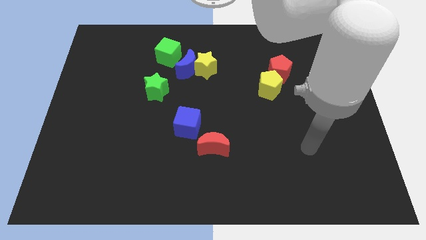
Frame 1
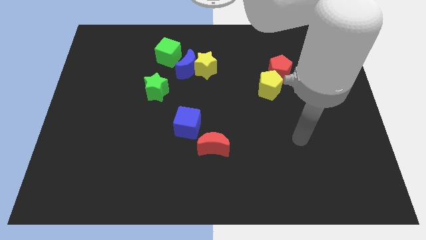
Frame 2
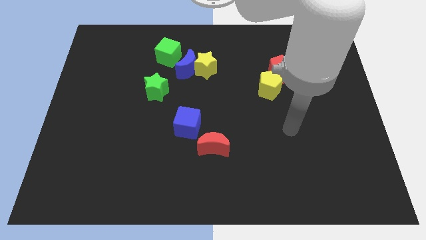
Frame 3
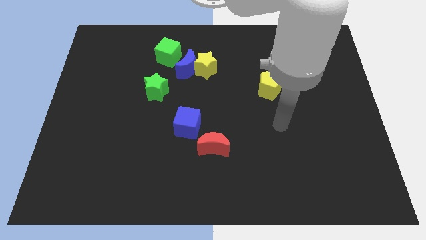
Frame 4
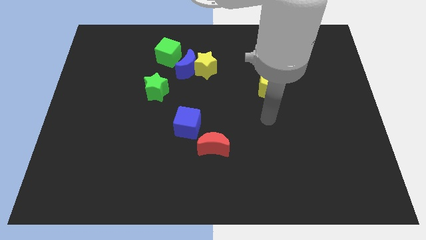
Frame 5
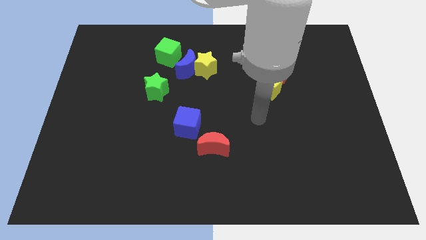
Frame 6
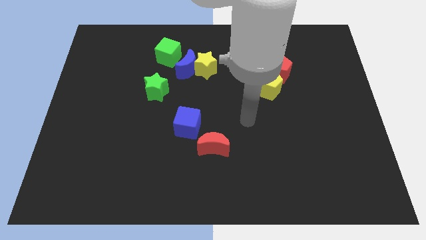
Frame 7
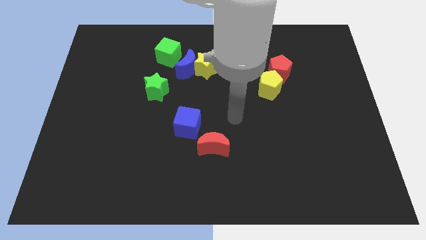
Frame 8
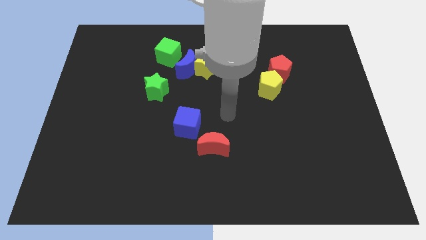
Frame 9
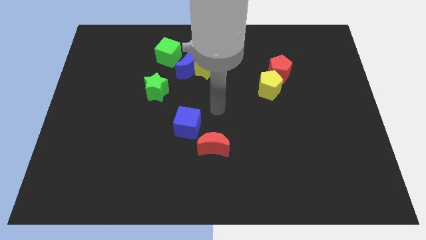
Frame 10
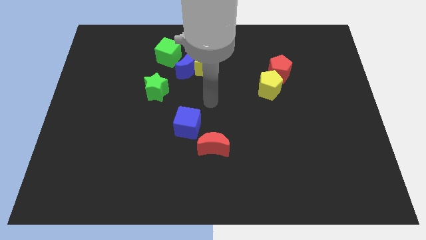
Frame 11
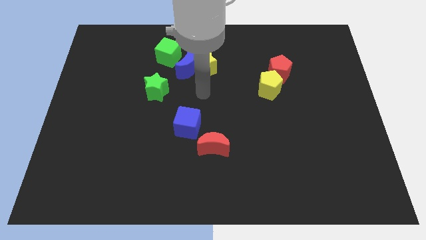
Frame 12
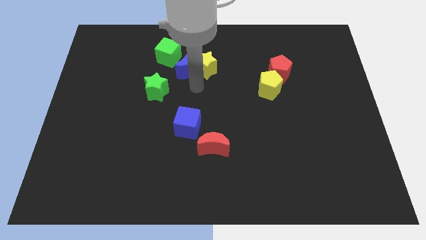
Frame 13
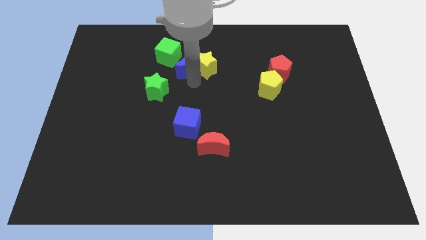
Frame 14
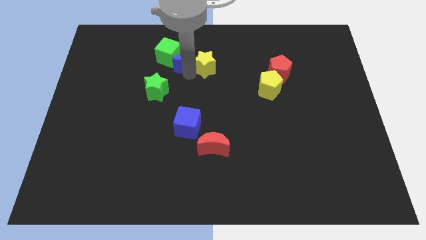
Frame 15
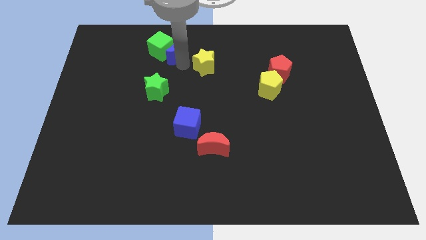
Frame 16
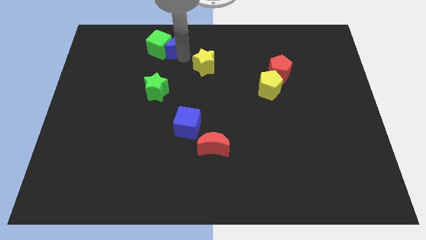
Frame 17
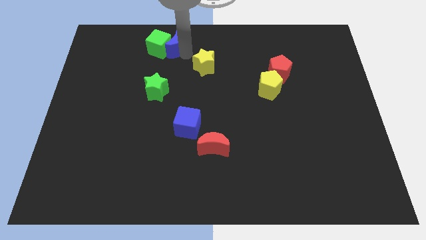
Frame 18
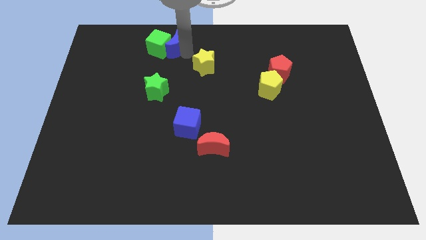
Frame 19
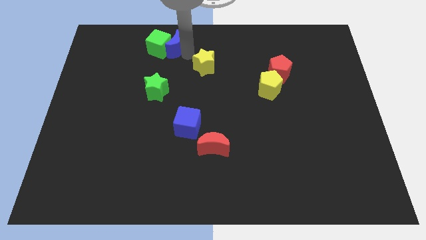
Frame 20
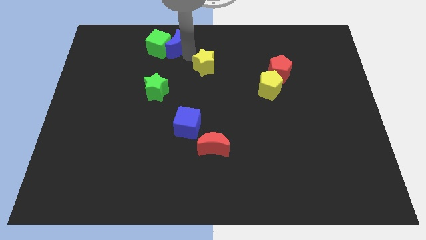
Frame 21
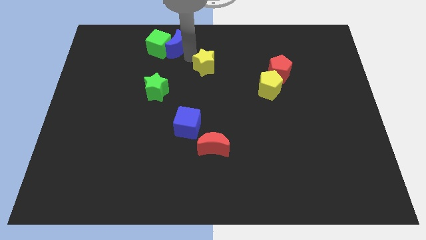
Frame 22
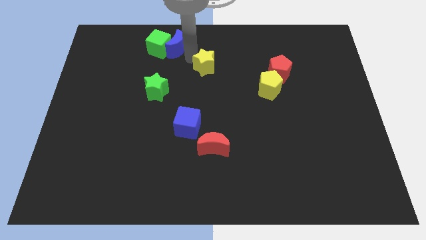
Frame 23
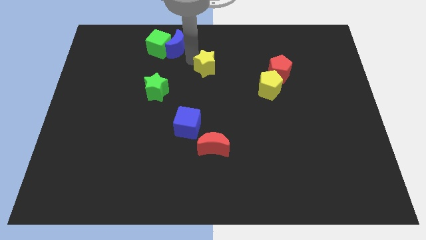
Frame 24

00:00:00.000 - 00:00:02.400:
separate the yellow star from the blue moon

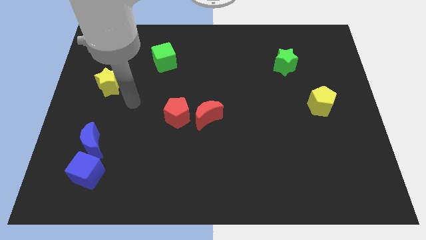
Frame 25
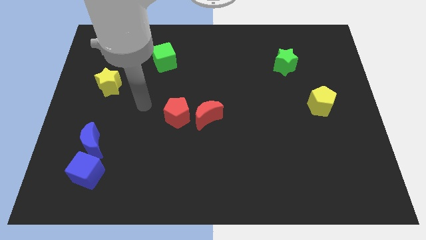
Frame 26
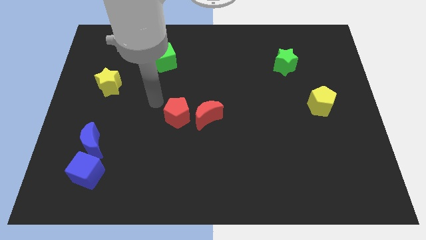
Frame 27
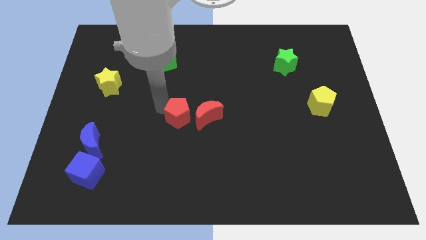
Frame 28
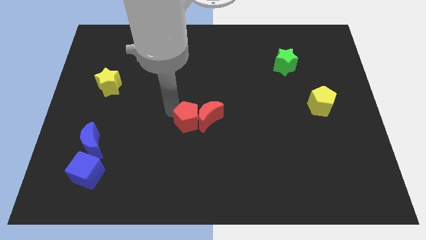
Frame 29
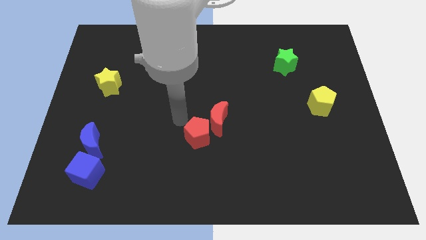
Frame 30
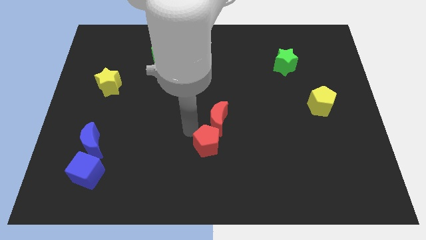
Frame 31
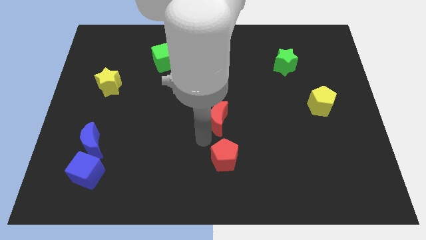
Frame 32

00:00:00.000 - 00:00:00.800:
pull the red moon apart from the red pentagon

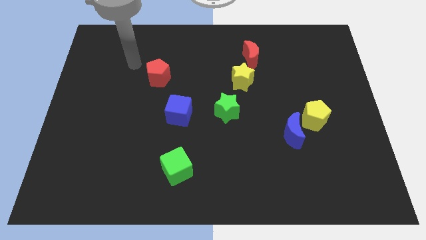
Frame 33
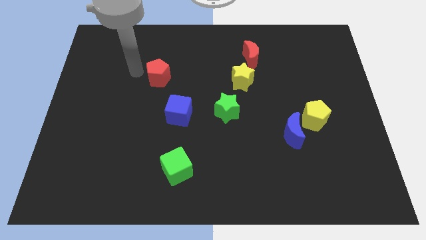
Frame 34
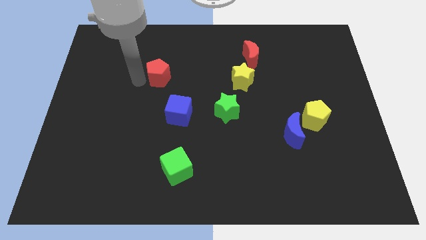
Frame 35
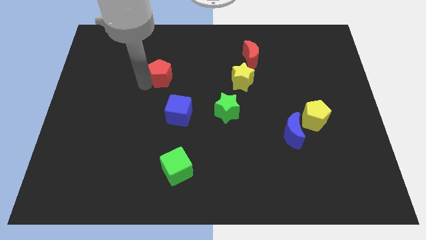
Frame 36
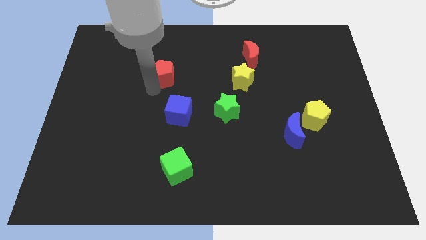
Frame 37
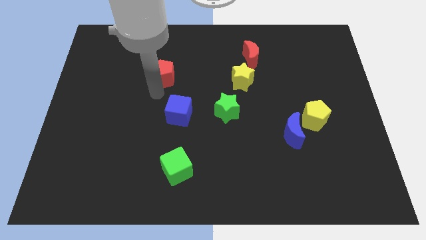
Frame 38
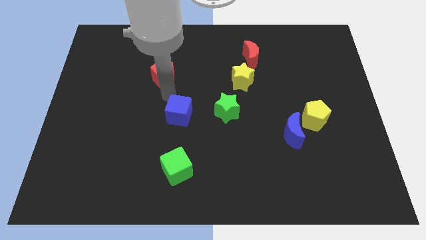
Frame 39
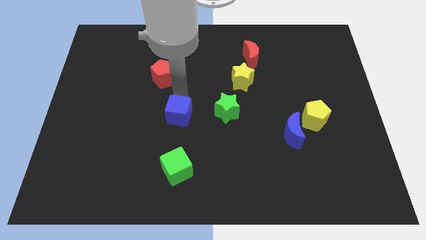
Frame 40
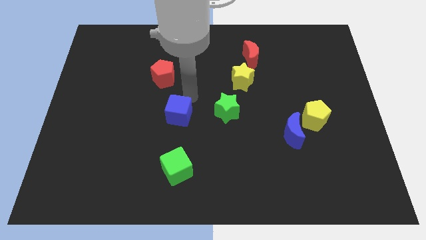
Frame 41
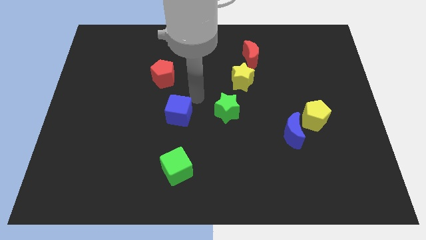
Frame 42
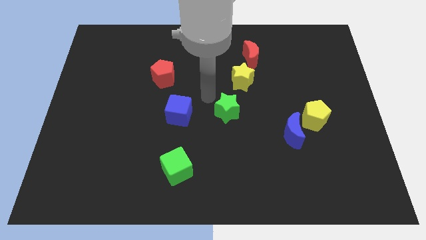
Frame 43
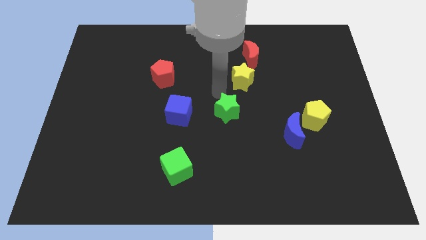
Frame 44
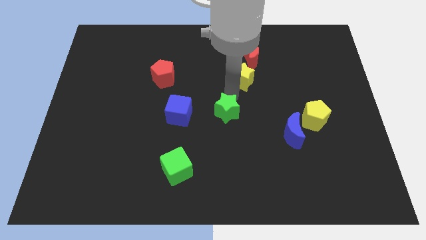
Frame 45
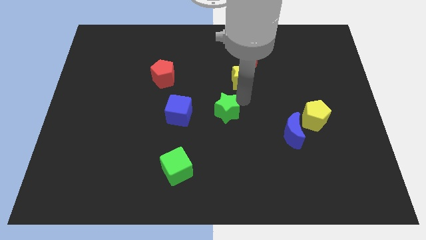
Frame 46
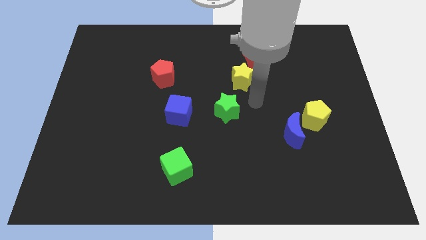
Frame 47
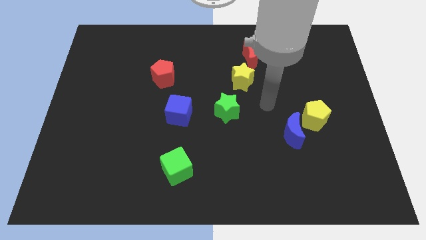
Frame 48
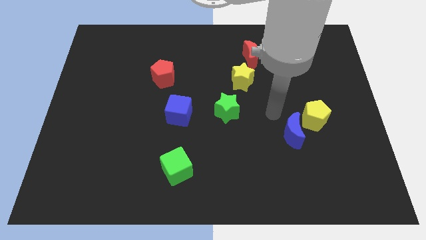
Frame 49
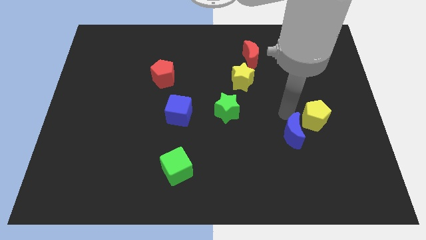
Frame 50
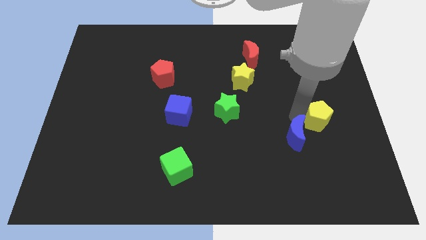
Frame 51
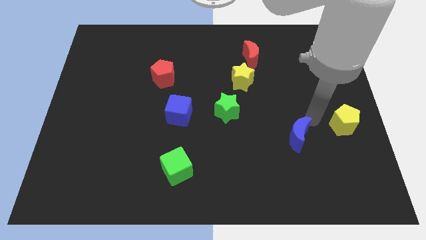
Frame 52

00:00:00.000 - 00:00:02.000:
separate the blue moon from the yellow pentagon

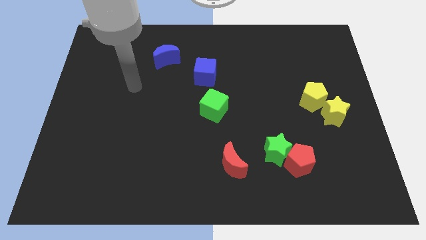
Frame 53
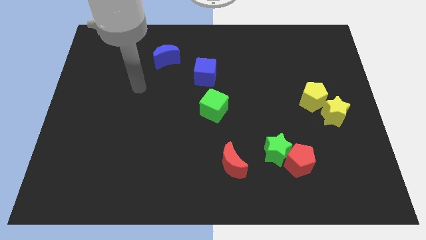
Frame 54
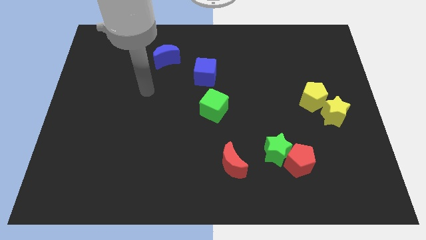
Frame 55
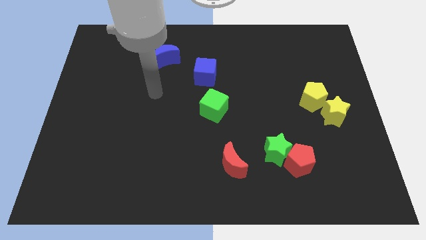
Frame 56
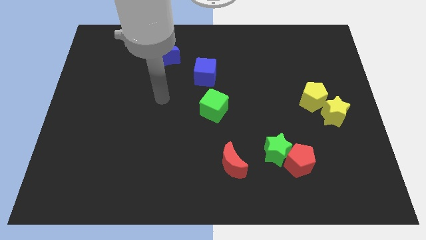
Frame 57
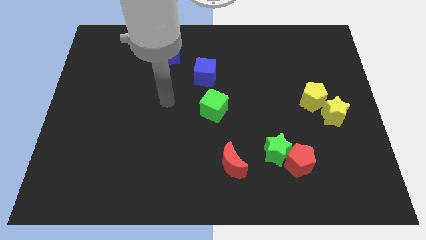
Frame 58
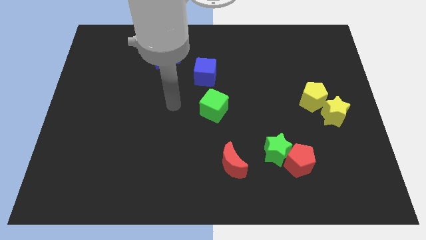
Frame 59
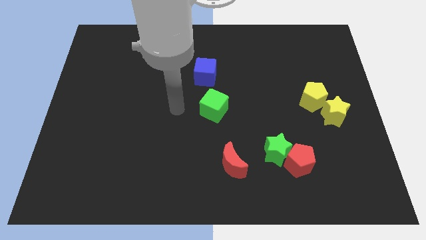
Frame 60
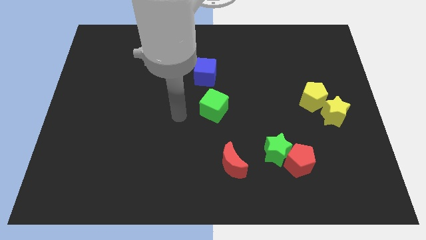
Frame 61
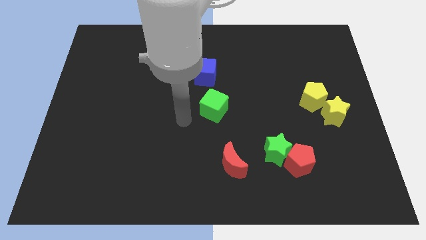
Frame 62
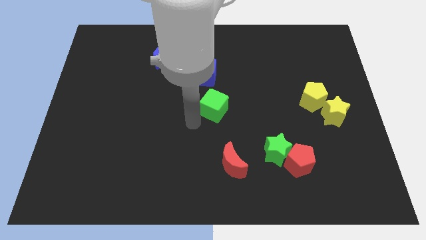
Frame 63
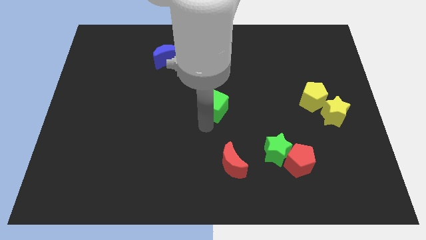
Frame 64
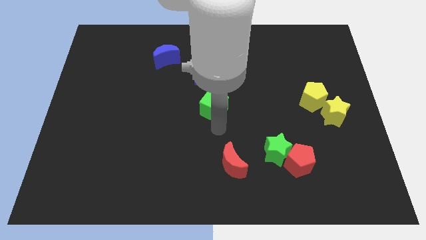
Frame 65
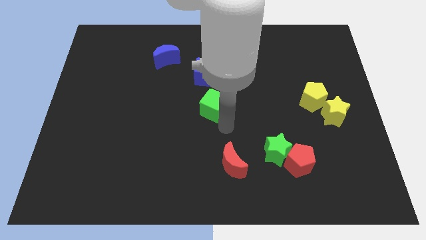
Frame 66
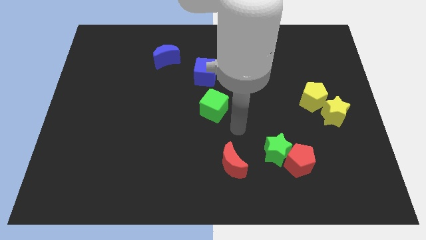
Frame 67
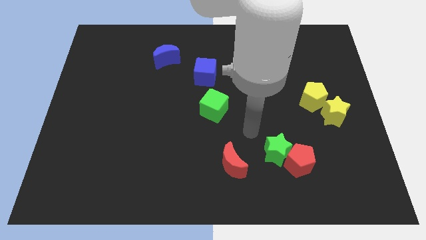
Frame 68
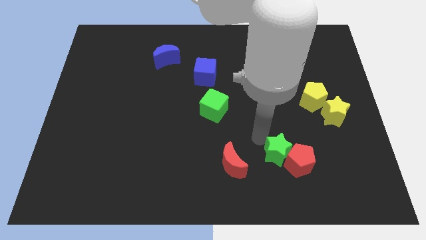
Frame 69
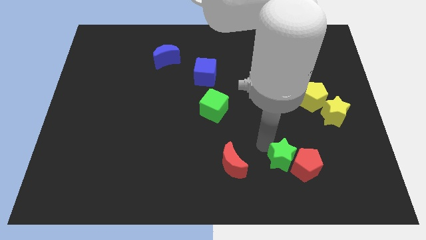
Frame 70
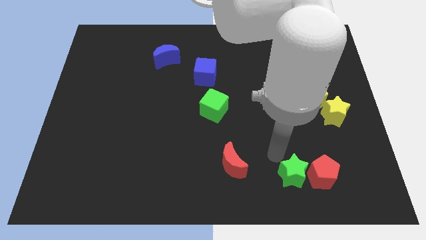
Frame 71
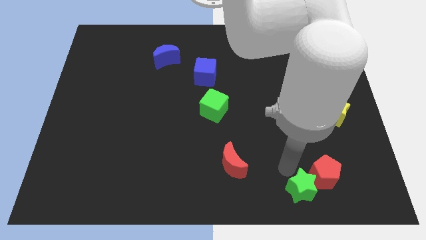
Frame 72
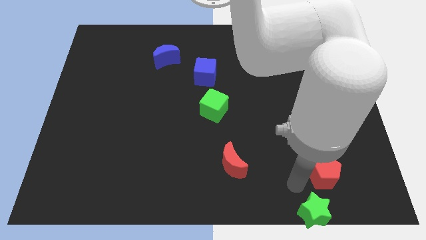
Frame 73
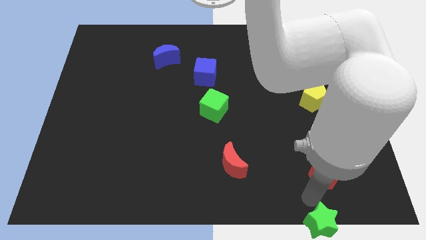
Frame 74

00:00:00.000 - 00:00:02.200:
move the red pentagon away from the green star

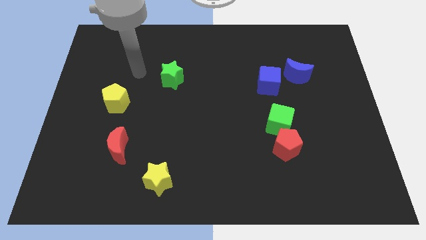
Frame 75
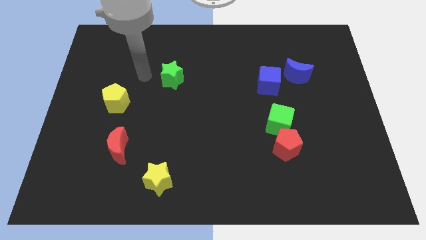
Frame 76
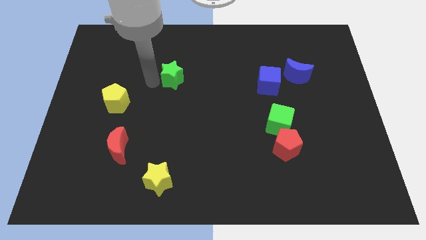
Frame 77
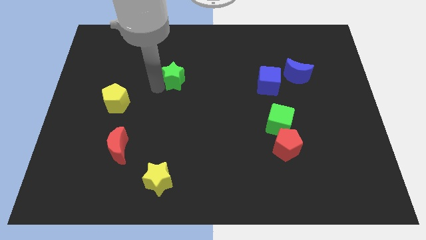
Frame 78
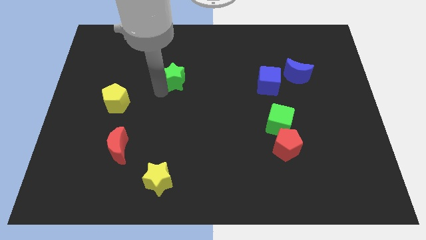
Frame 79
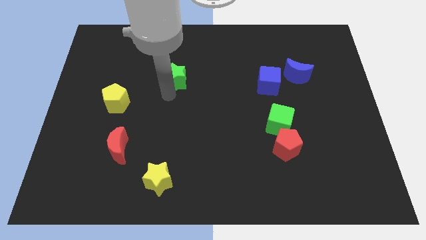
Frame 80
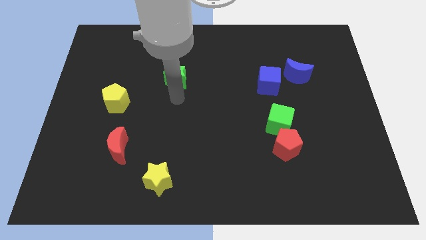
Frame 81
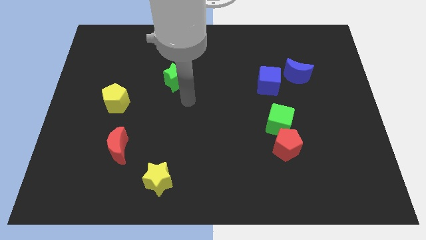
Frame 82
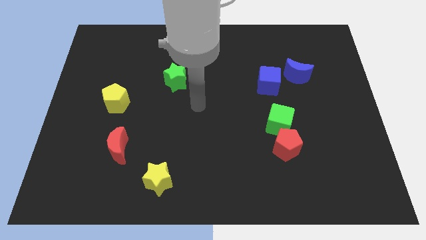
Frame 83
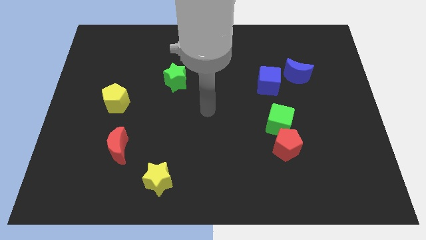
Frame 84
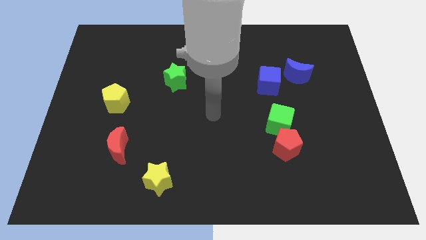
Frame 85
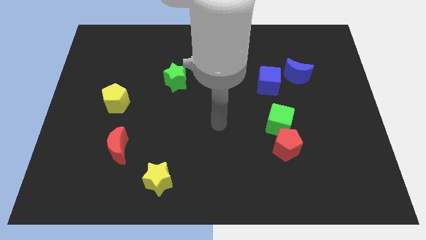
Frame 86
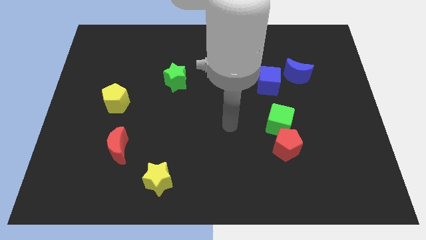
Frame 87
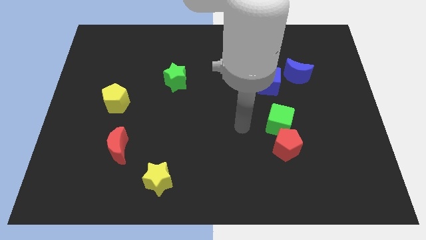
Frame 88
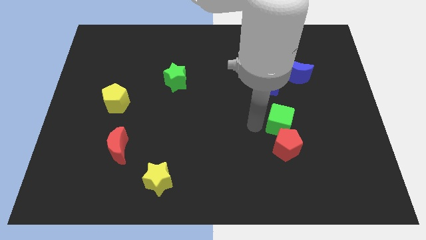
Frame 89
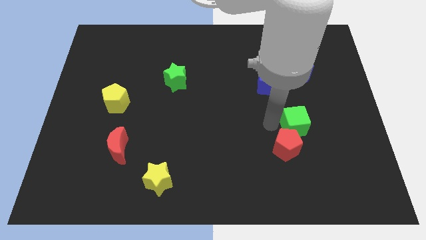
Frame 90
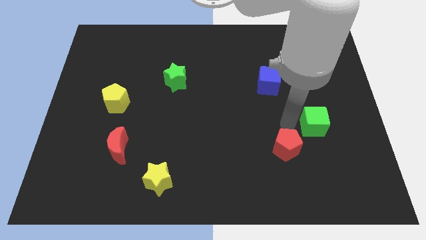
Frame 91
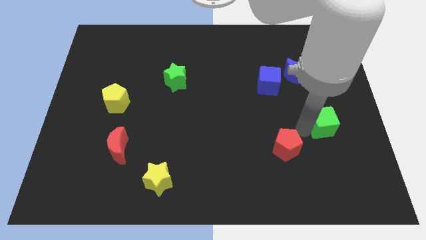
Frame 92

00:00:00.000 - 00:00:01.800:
pull the red pentagon apart from the green cube
